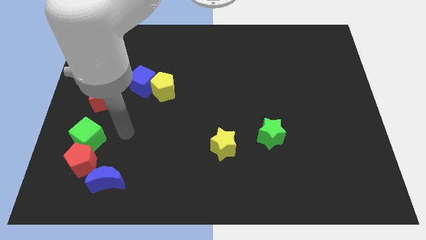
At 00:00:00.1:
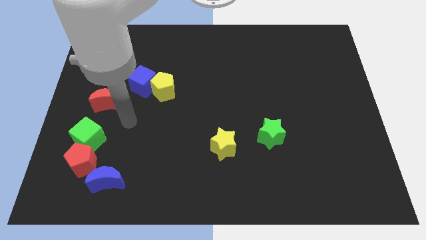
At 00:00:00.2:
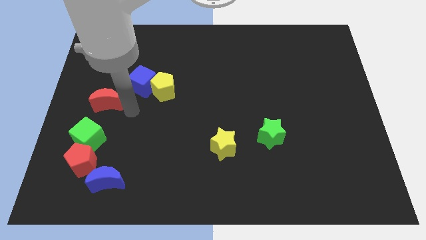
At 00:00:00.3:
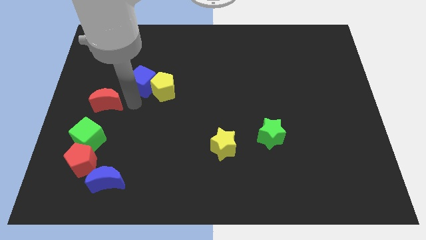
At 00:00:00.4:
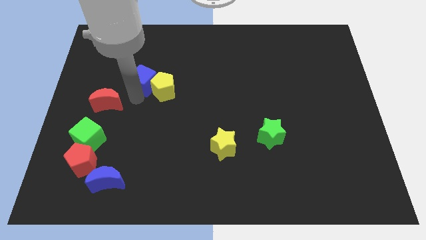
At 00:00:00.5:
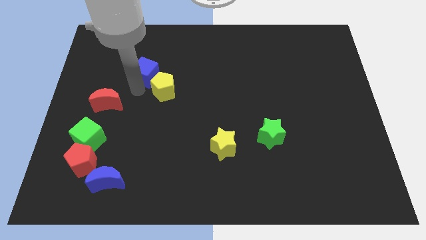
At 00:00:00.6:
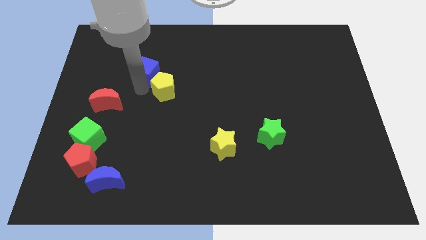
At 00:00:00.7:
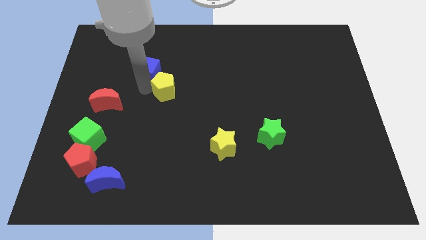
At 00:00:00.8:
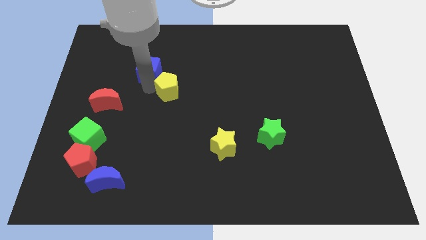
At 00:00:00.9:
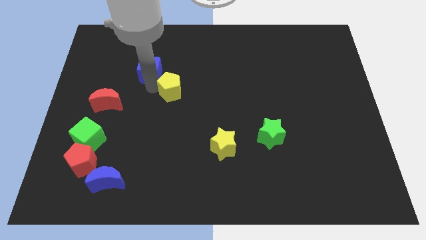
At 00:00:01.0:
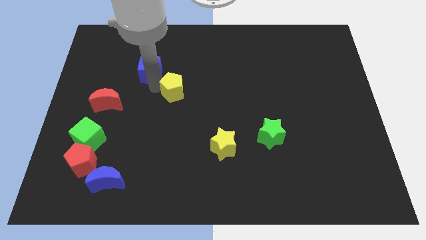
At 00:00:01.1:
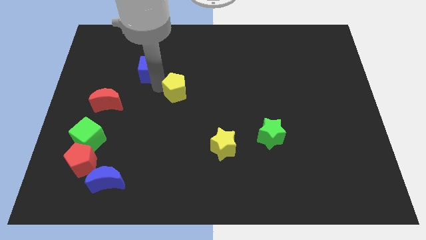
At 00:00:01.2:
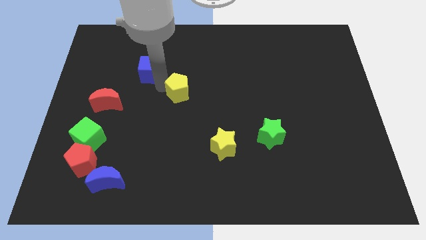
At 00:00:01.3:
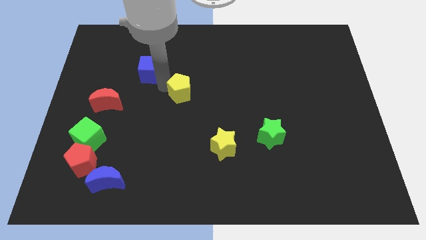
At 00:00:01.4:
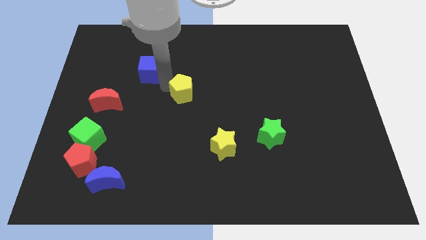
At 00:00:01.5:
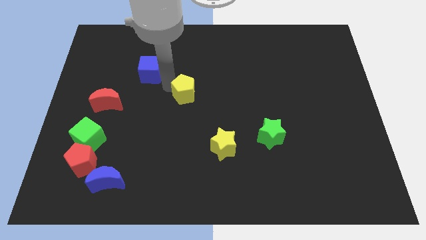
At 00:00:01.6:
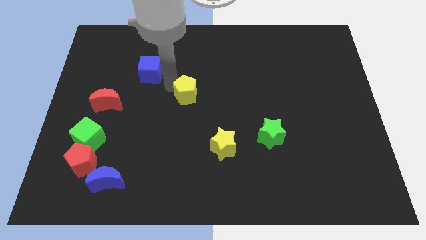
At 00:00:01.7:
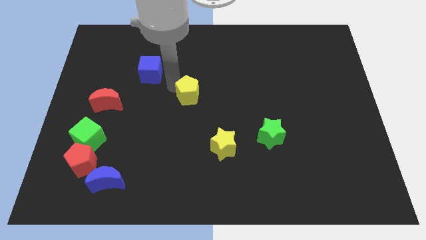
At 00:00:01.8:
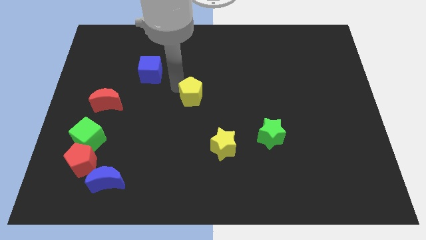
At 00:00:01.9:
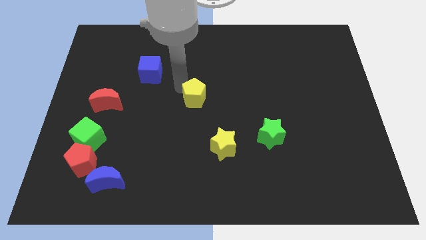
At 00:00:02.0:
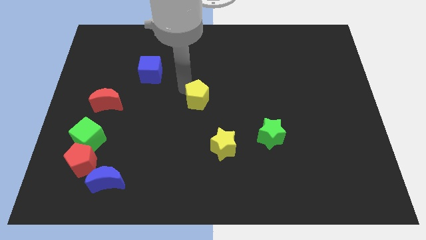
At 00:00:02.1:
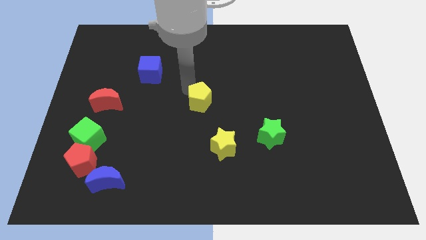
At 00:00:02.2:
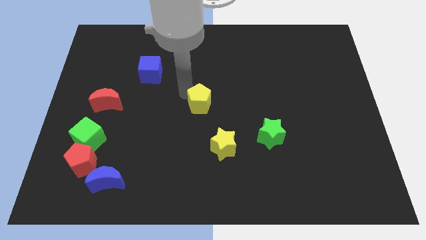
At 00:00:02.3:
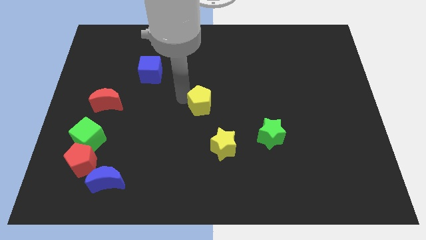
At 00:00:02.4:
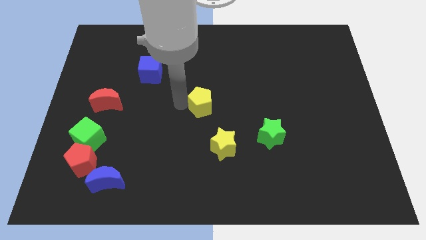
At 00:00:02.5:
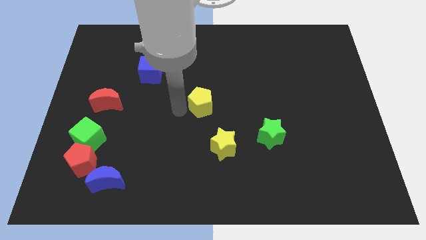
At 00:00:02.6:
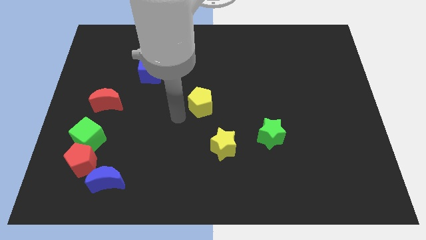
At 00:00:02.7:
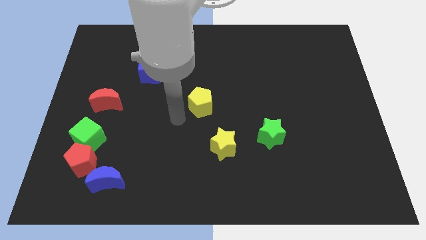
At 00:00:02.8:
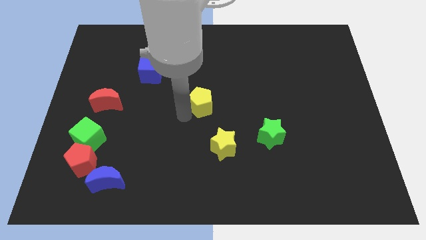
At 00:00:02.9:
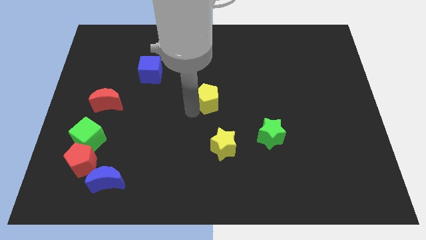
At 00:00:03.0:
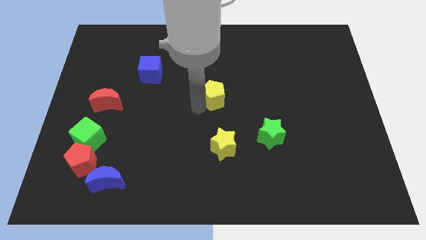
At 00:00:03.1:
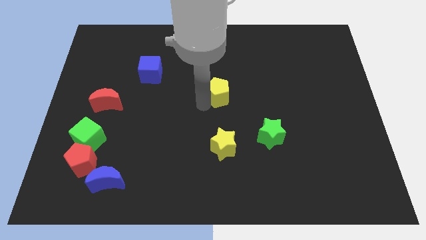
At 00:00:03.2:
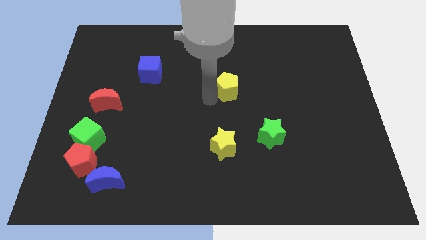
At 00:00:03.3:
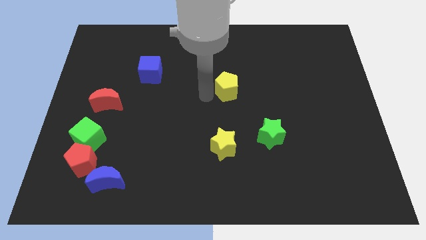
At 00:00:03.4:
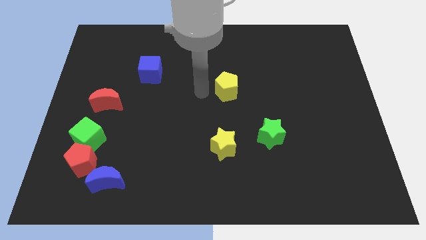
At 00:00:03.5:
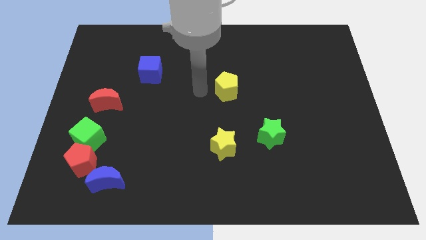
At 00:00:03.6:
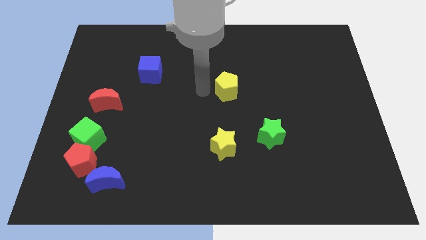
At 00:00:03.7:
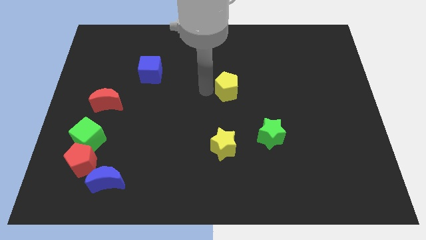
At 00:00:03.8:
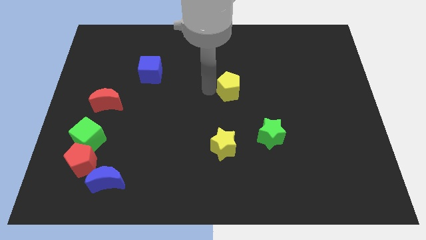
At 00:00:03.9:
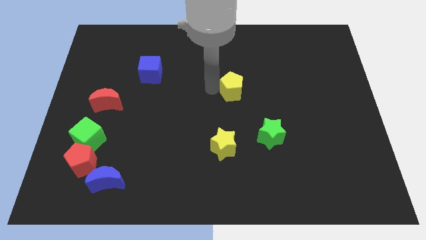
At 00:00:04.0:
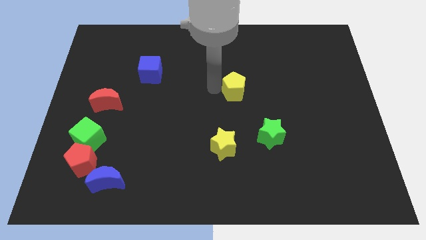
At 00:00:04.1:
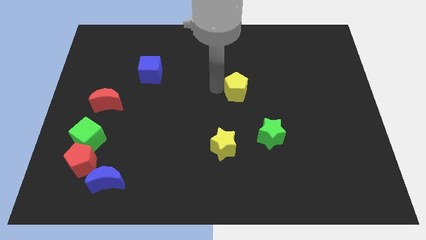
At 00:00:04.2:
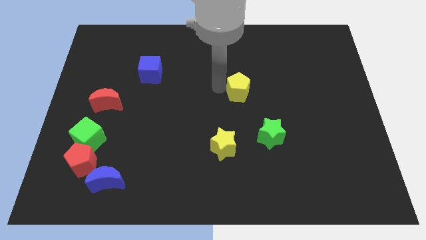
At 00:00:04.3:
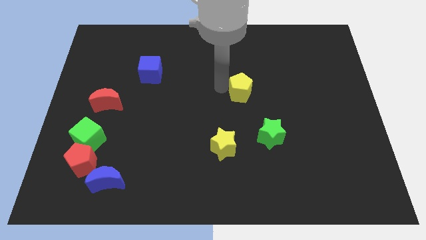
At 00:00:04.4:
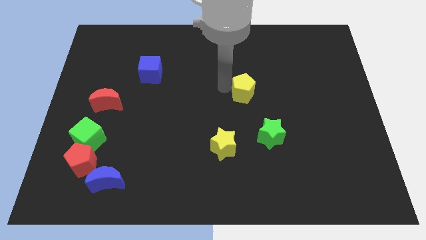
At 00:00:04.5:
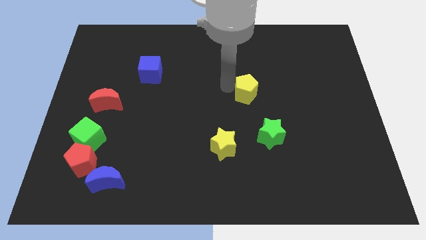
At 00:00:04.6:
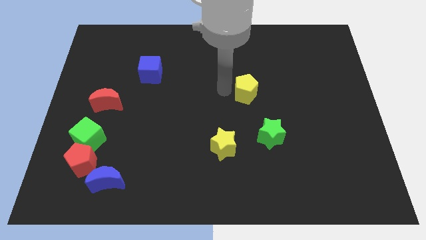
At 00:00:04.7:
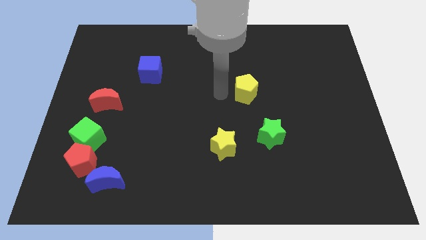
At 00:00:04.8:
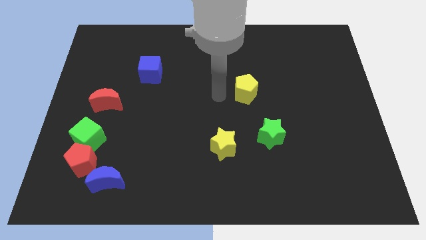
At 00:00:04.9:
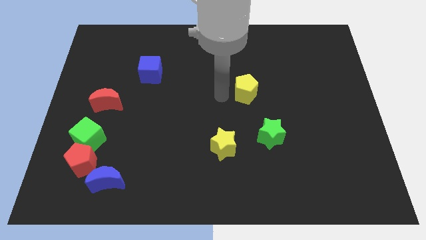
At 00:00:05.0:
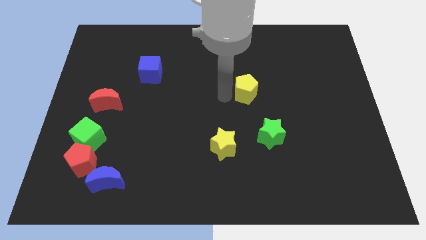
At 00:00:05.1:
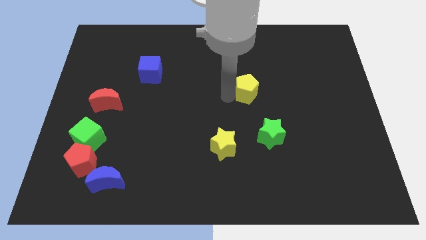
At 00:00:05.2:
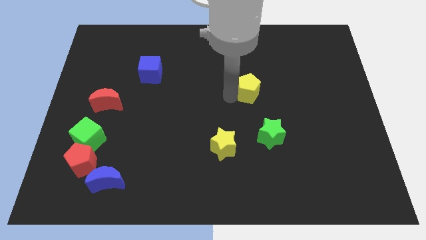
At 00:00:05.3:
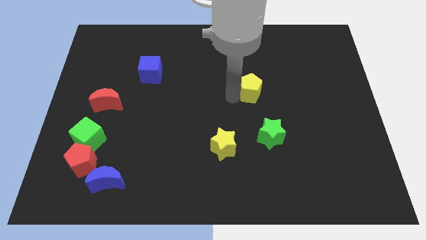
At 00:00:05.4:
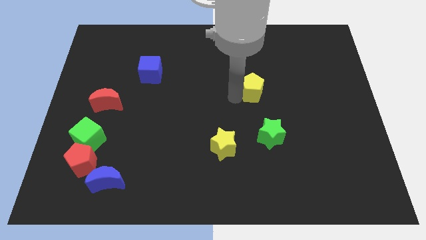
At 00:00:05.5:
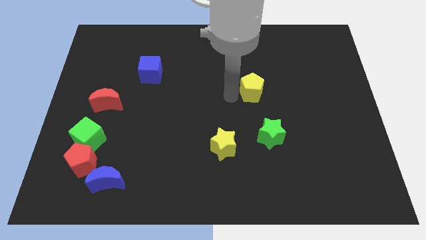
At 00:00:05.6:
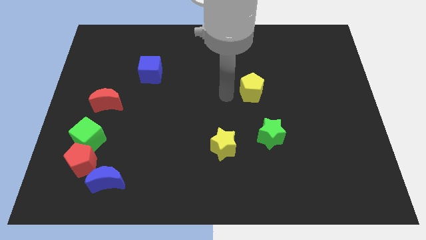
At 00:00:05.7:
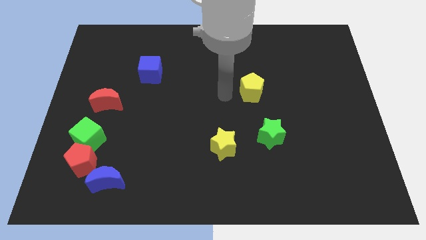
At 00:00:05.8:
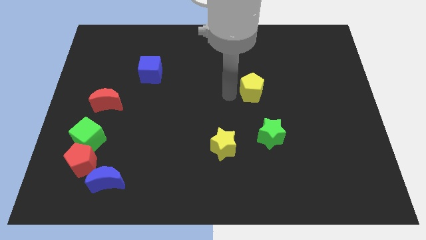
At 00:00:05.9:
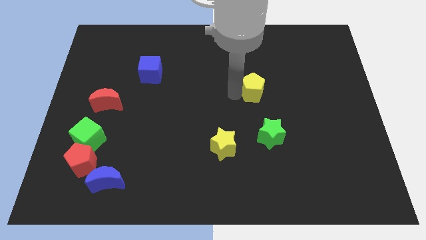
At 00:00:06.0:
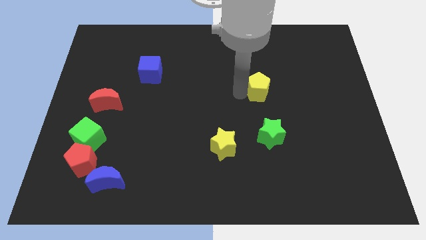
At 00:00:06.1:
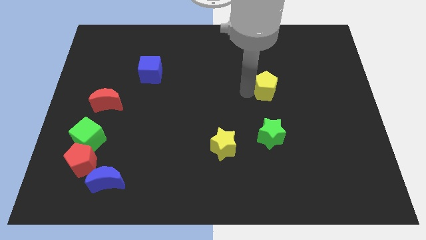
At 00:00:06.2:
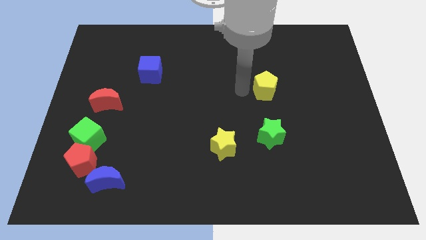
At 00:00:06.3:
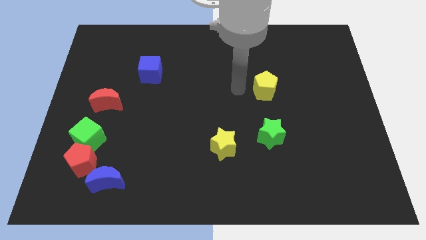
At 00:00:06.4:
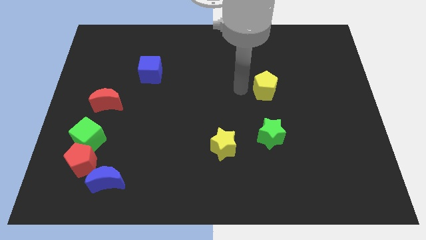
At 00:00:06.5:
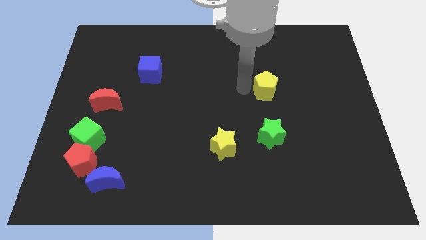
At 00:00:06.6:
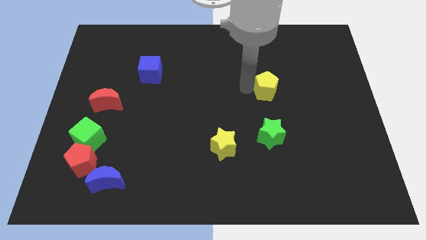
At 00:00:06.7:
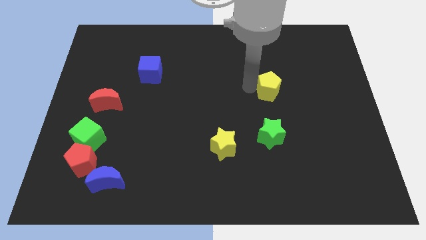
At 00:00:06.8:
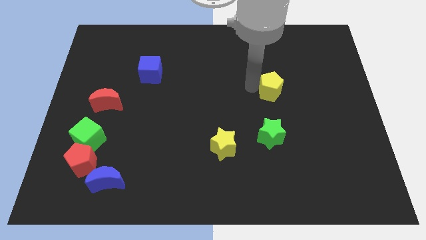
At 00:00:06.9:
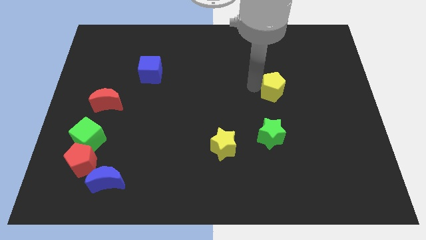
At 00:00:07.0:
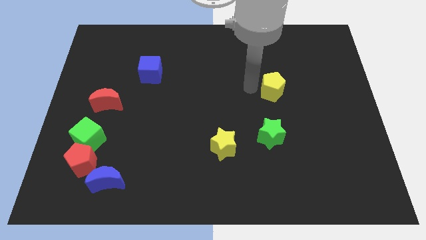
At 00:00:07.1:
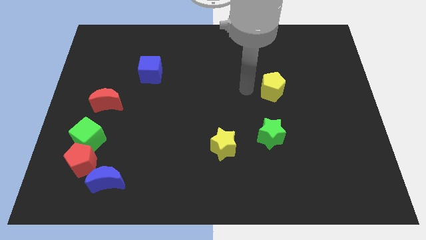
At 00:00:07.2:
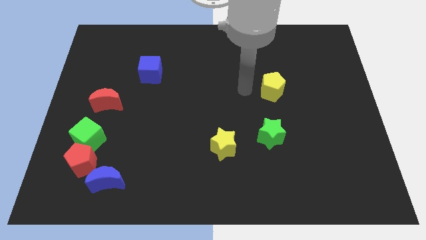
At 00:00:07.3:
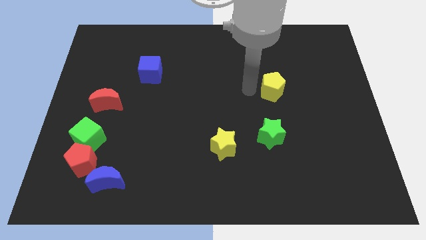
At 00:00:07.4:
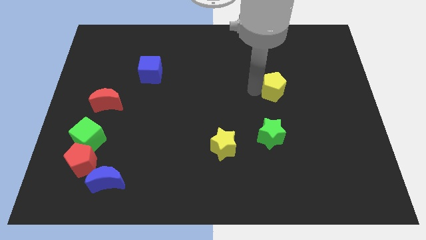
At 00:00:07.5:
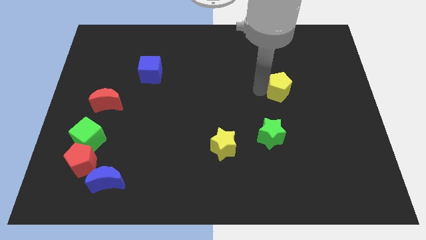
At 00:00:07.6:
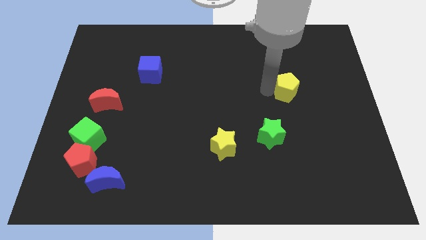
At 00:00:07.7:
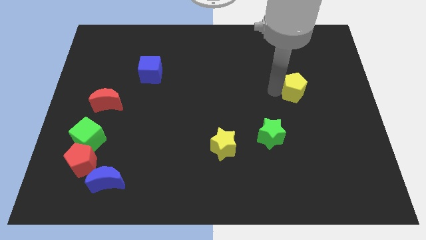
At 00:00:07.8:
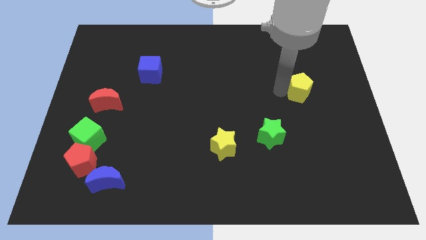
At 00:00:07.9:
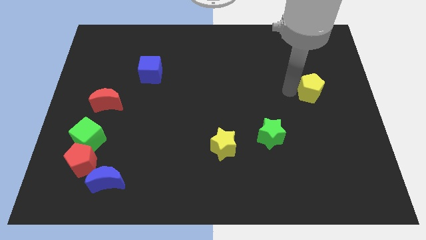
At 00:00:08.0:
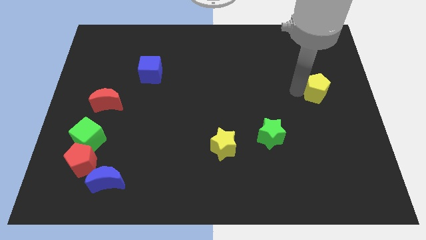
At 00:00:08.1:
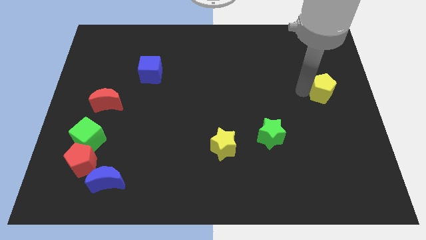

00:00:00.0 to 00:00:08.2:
put the yellow pentagon to the center right
